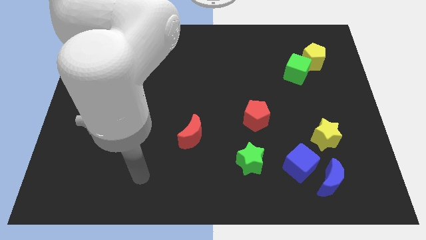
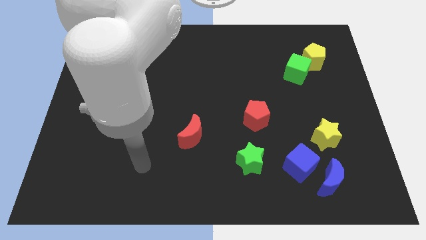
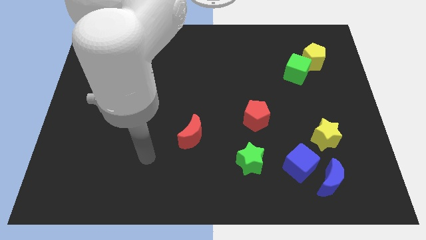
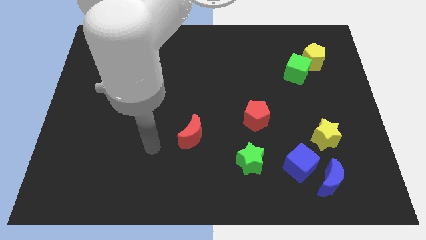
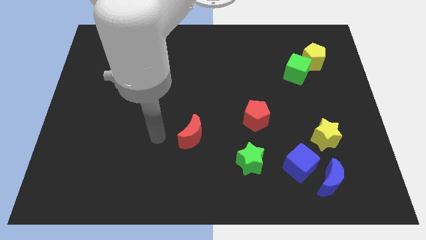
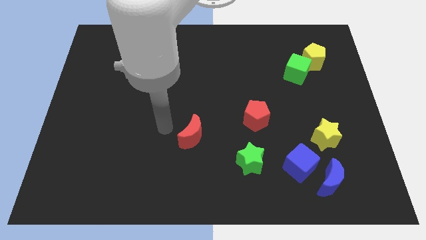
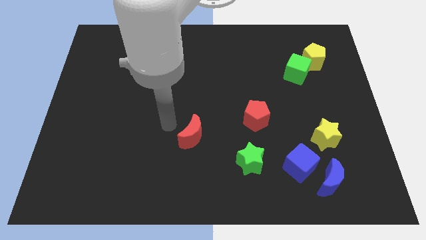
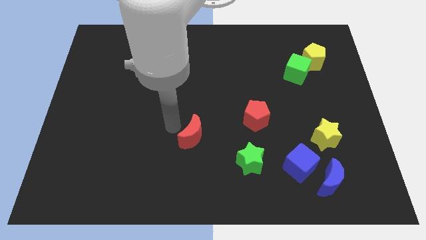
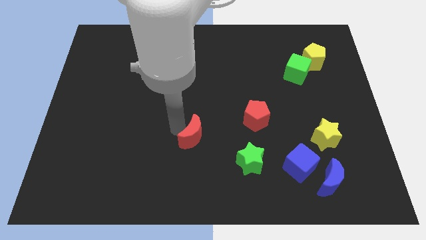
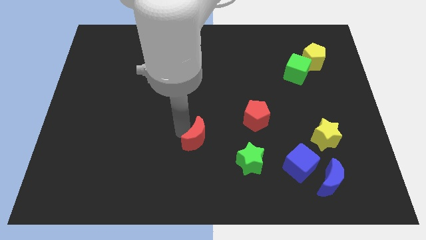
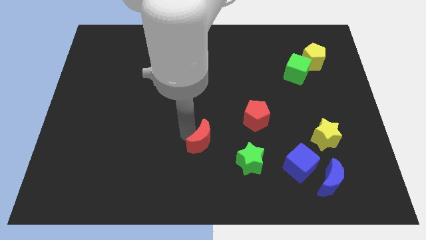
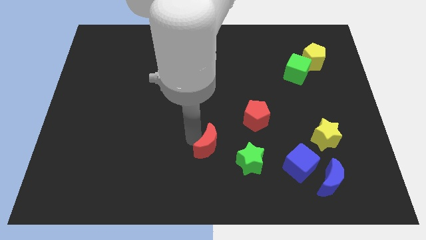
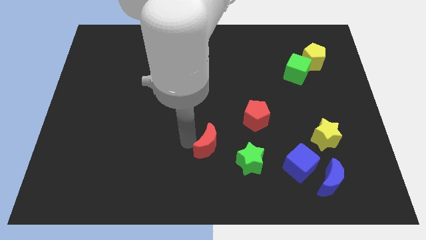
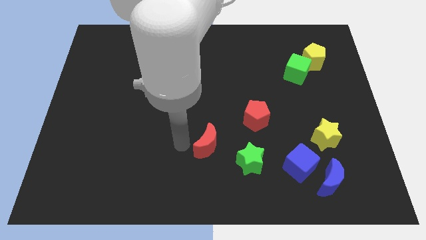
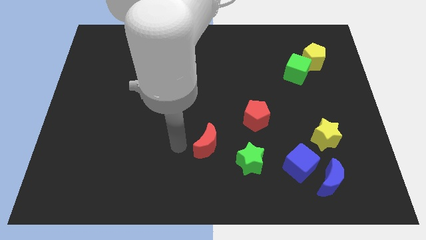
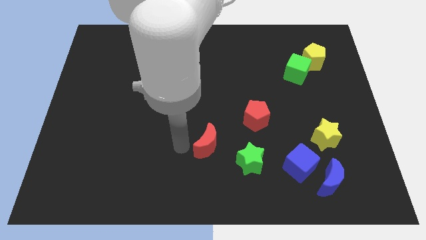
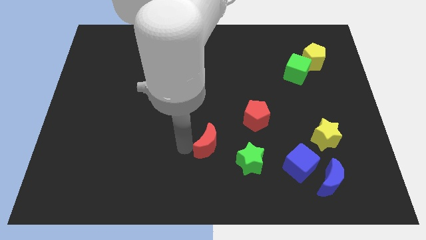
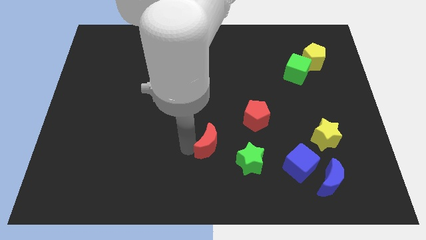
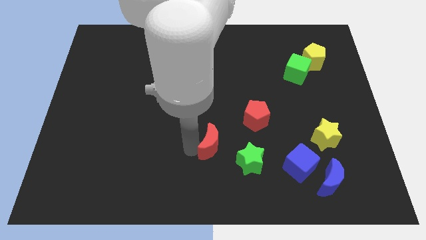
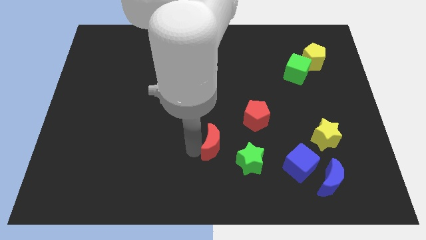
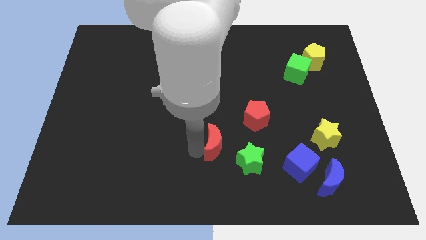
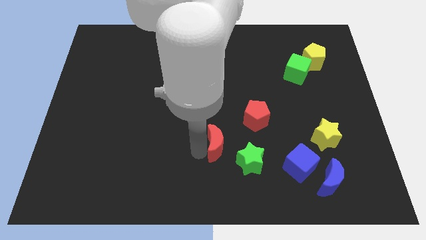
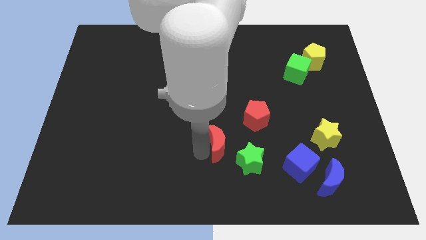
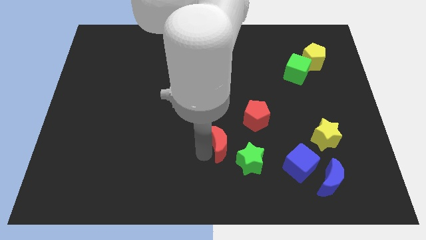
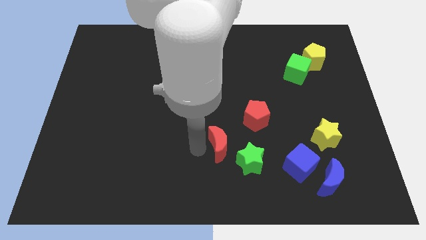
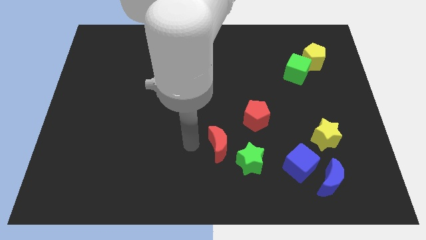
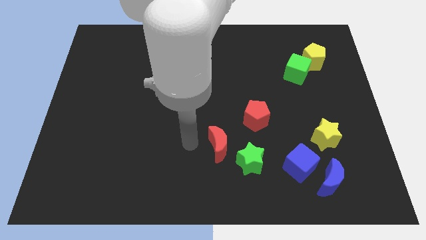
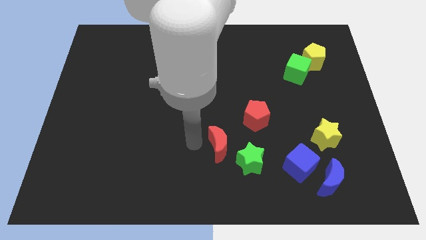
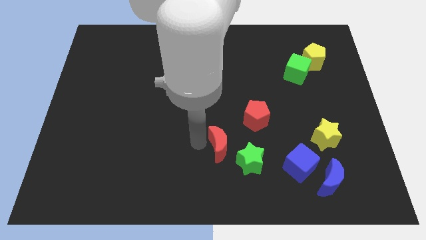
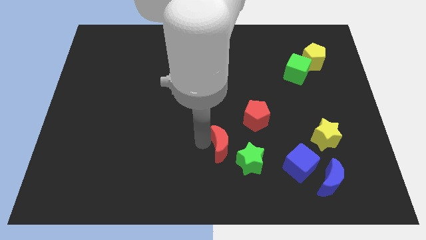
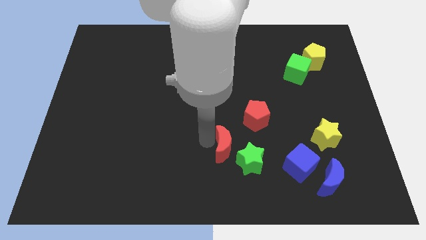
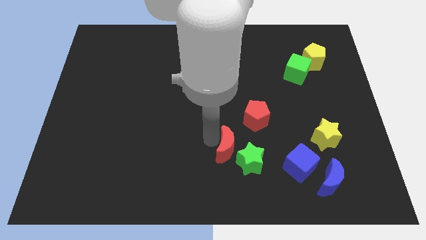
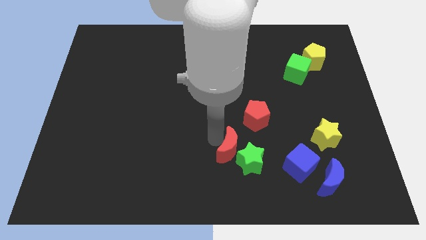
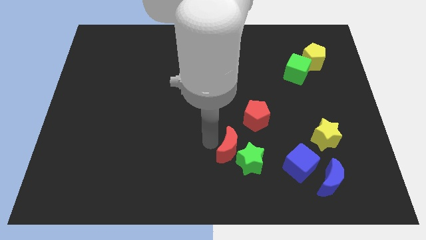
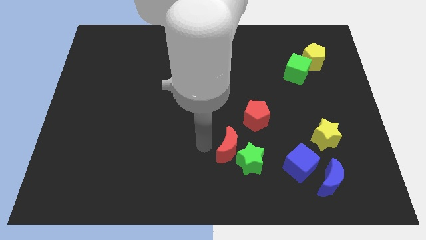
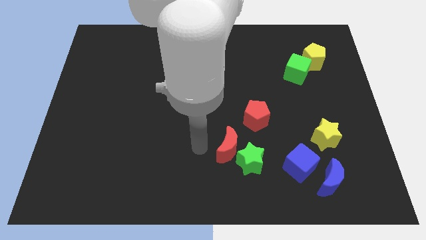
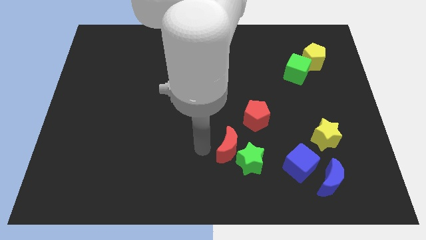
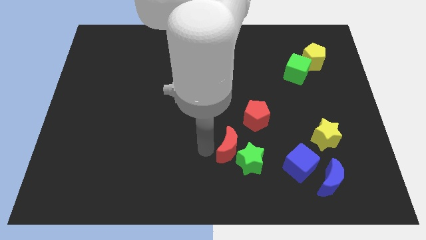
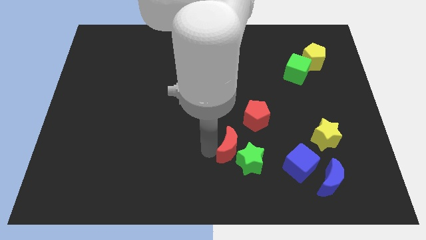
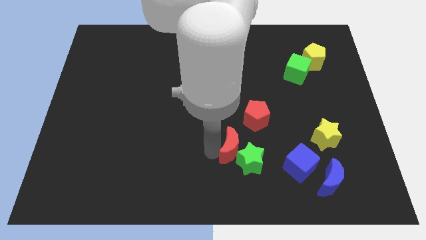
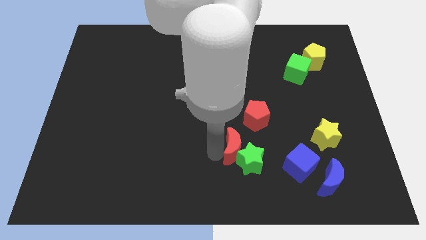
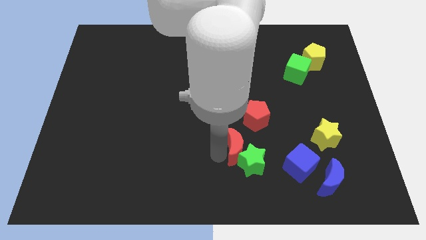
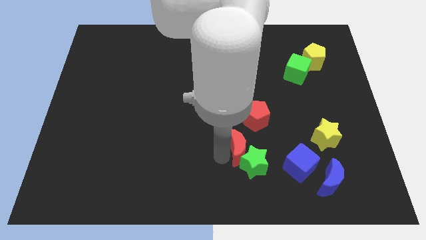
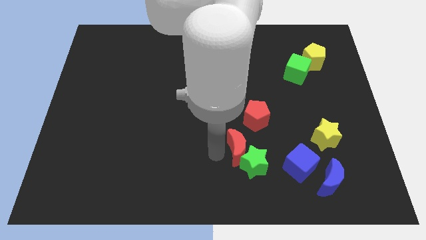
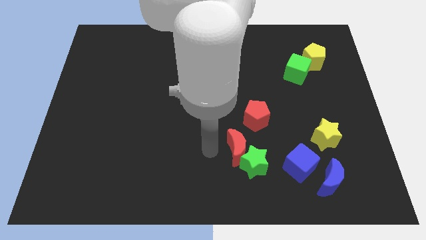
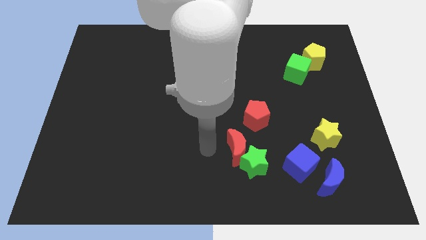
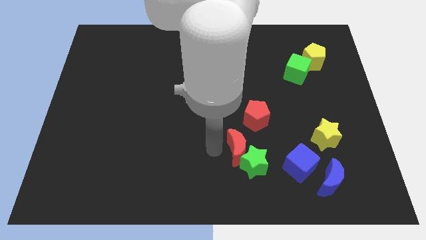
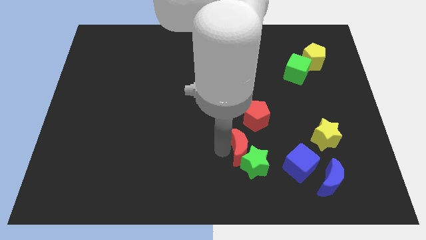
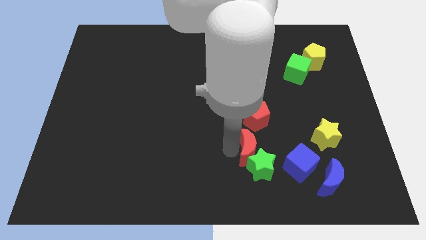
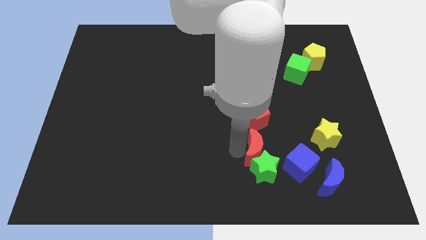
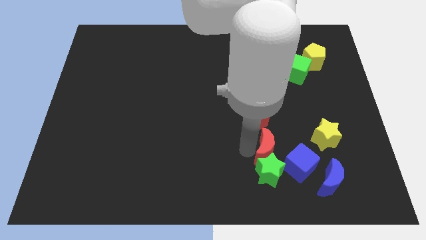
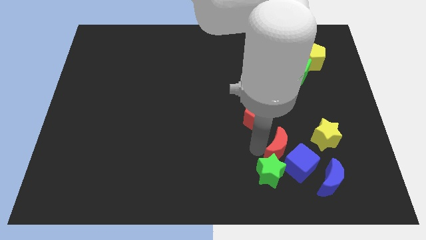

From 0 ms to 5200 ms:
move the red moon next to the blue cube

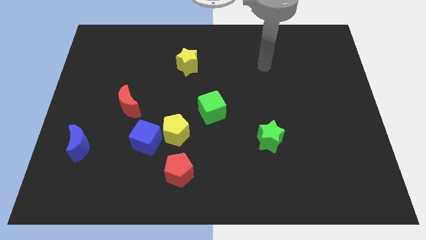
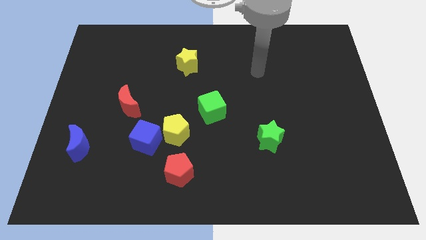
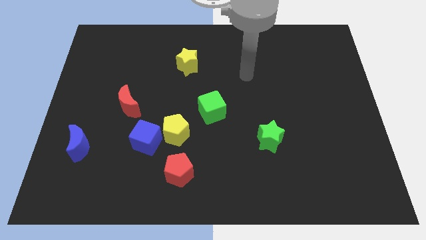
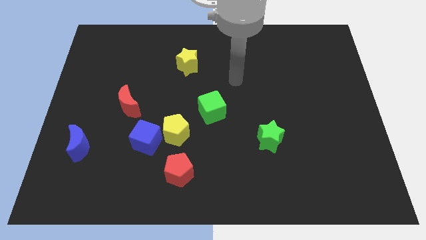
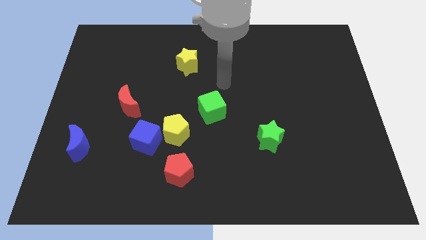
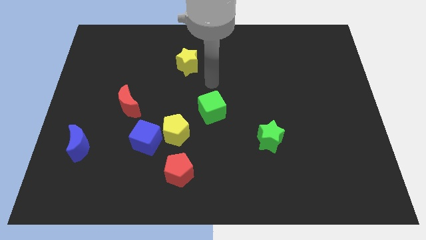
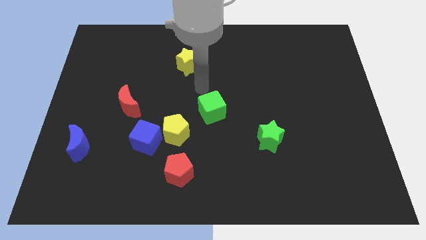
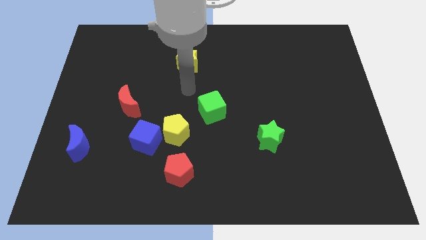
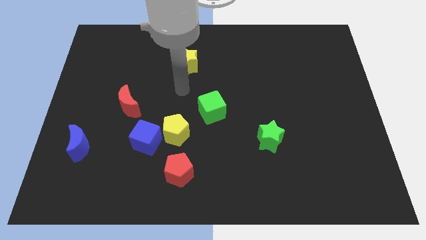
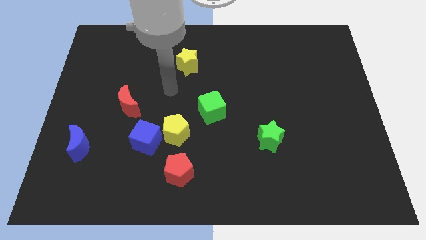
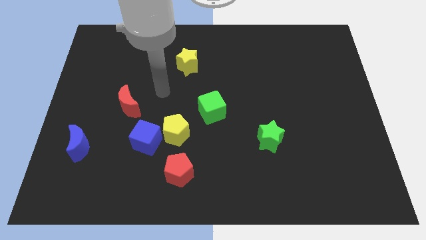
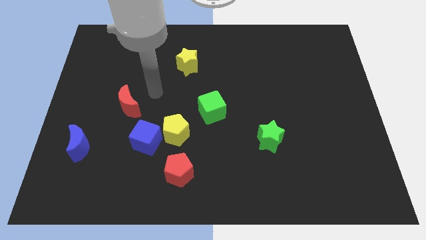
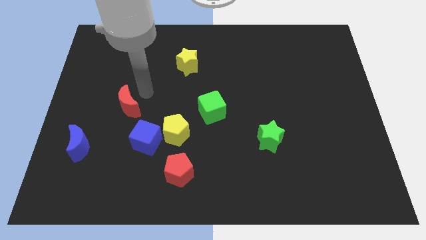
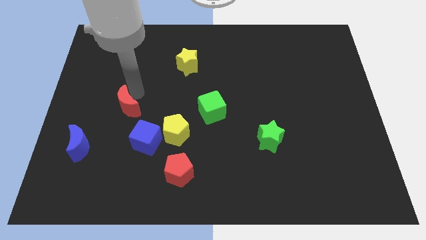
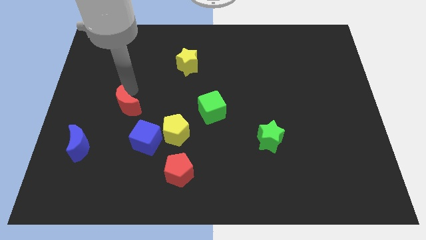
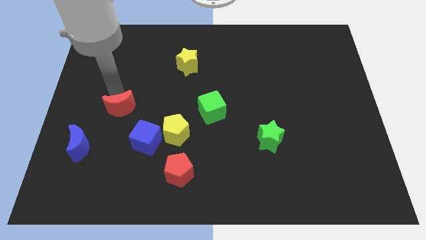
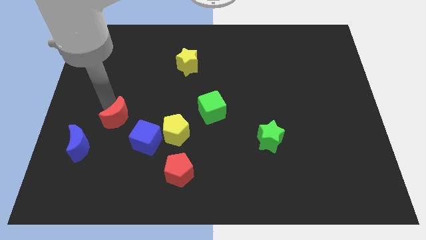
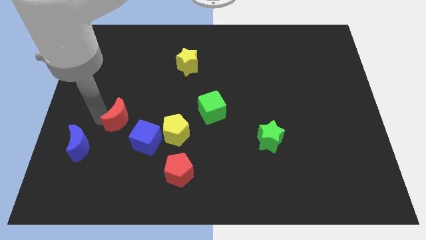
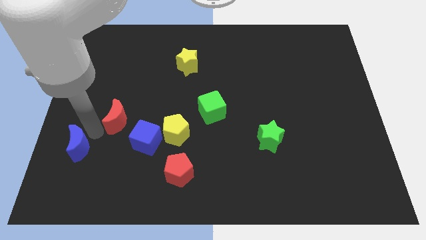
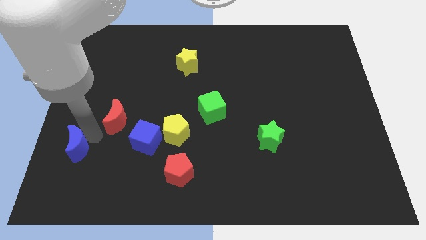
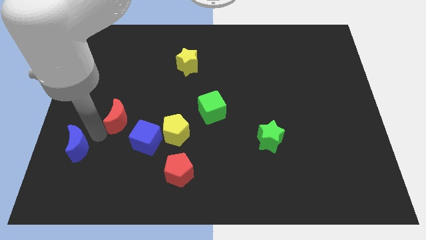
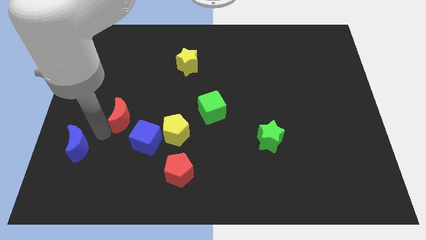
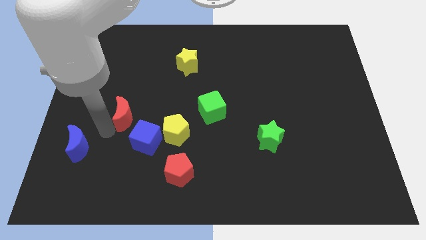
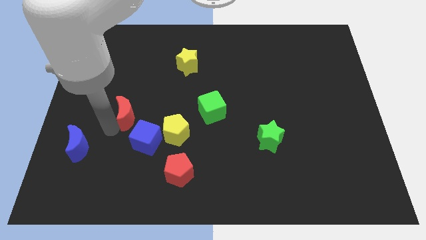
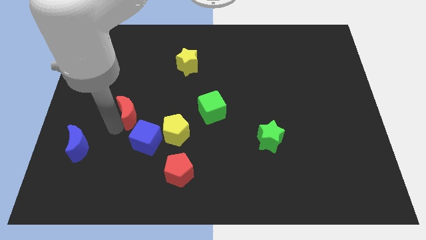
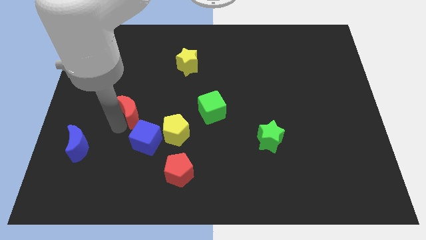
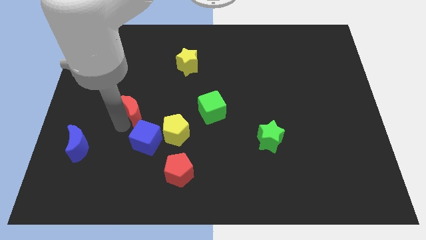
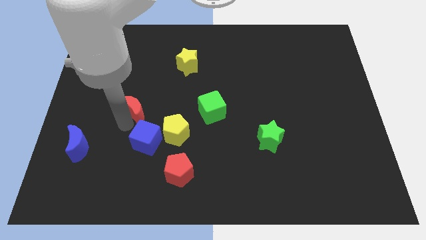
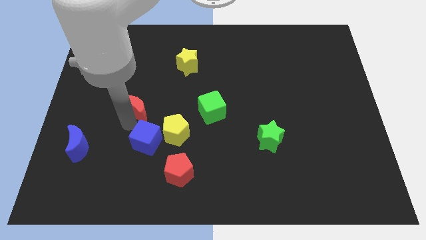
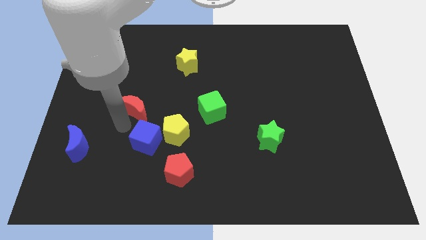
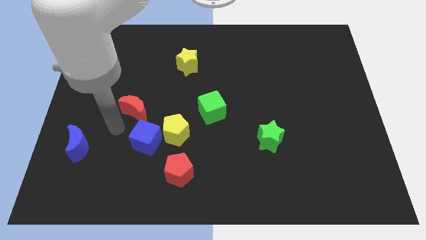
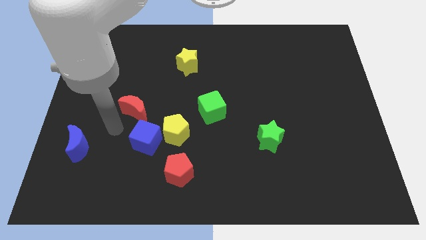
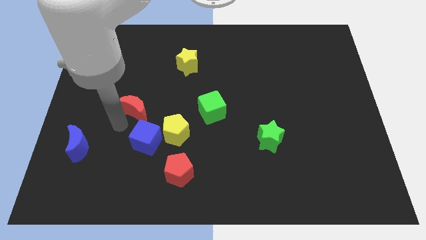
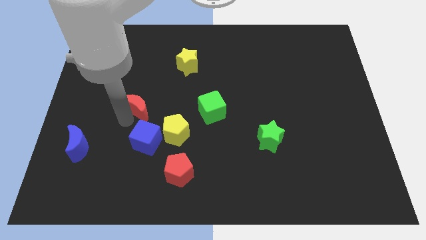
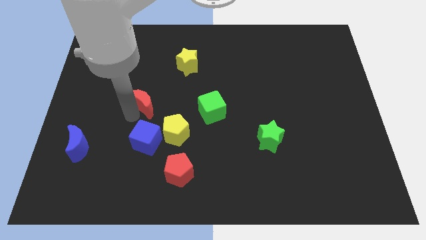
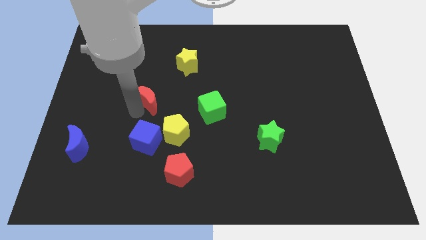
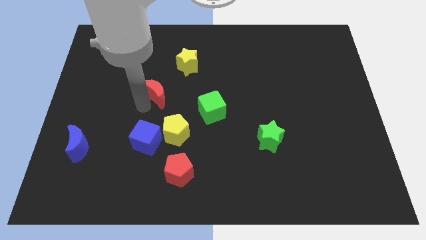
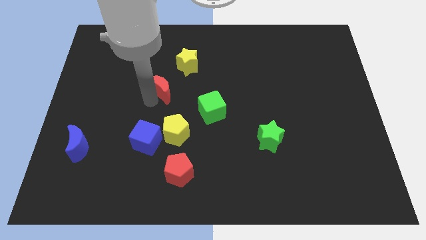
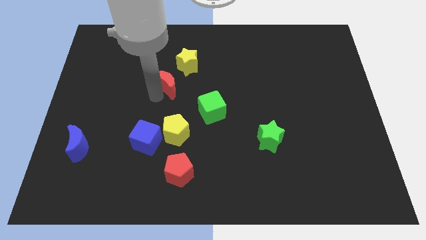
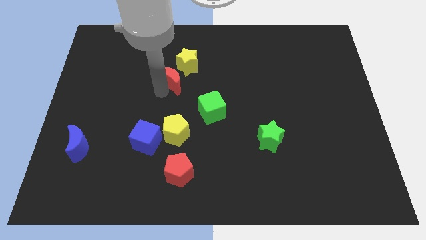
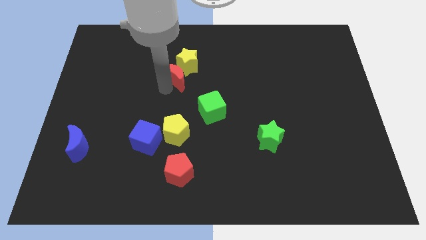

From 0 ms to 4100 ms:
push the red moon towards the yellow star
